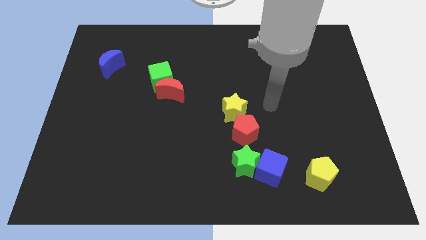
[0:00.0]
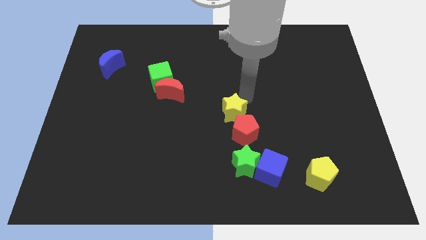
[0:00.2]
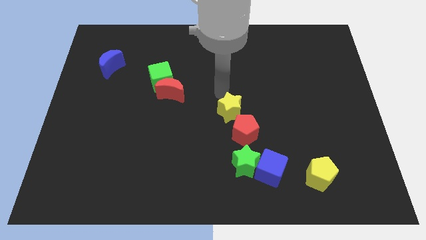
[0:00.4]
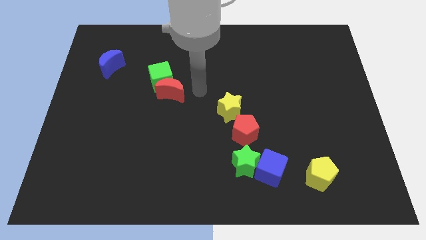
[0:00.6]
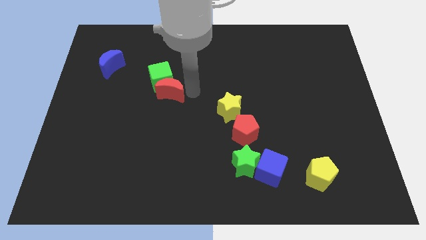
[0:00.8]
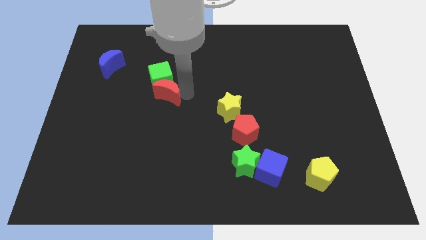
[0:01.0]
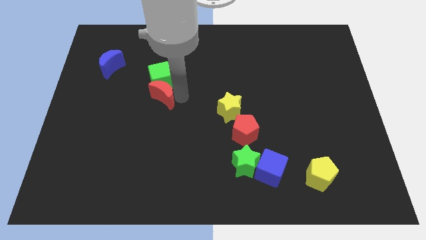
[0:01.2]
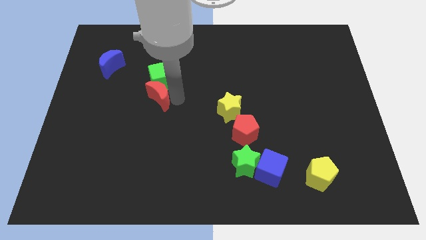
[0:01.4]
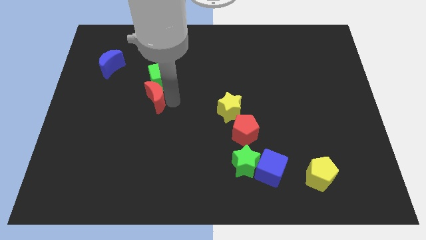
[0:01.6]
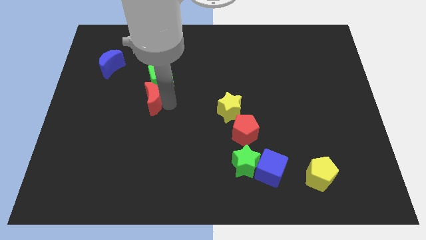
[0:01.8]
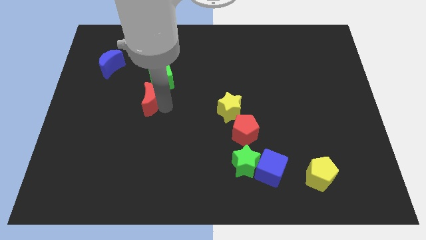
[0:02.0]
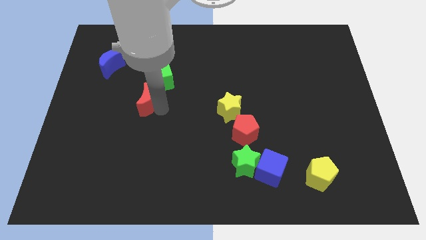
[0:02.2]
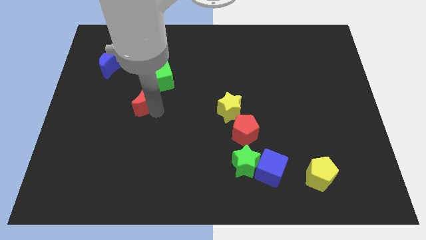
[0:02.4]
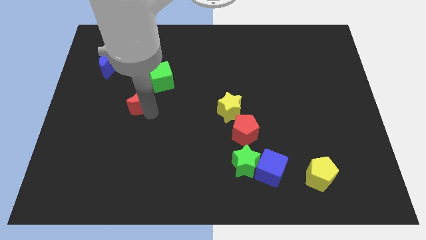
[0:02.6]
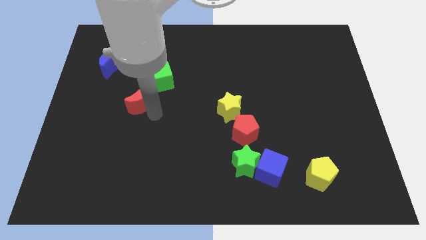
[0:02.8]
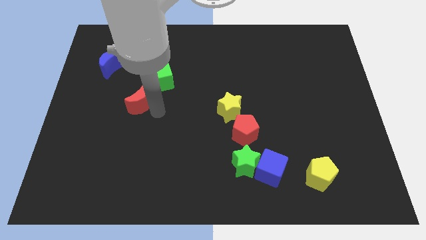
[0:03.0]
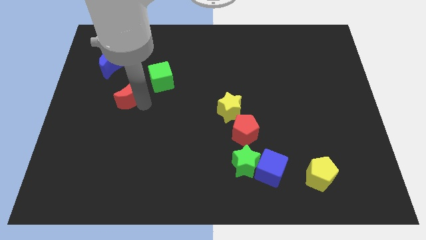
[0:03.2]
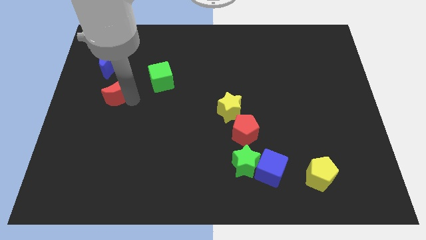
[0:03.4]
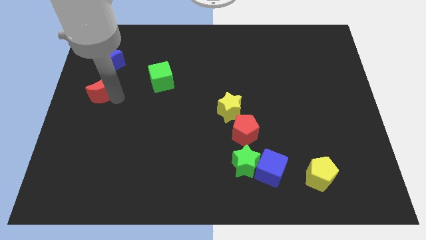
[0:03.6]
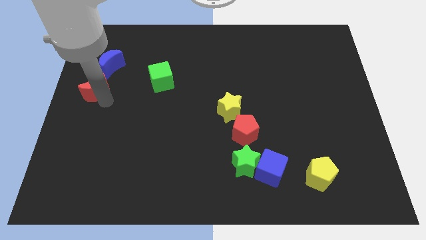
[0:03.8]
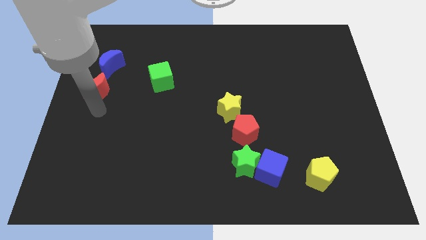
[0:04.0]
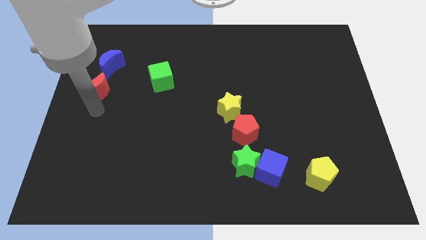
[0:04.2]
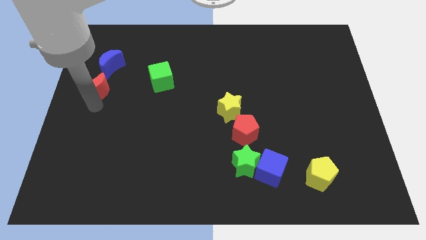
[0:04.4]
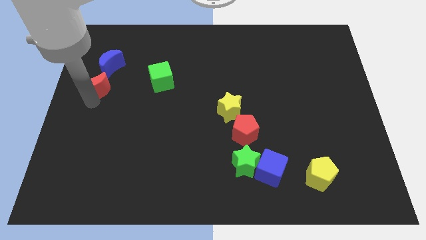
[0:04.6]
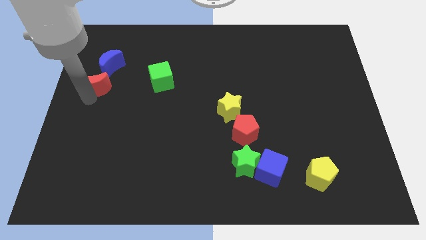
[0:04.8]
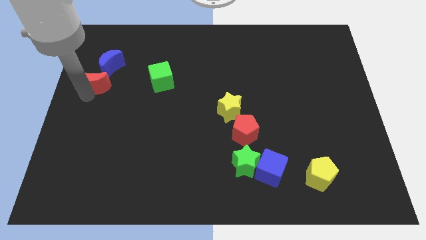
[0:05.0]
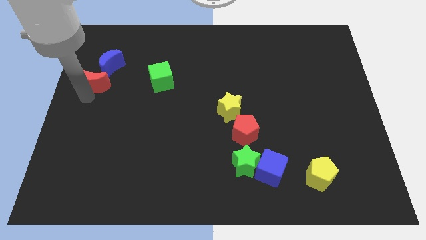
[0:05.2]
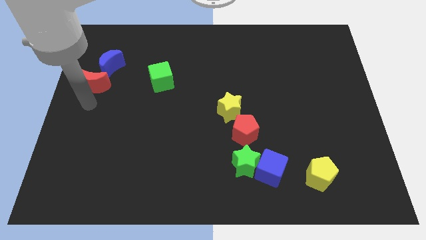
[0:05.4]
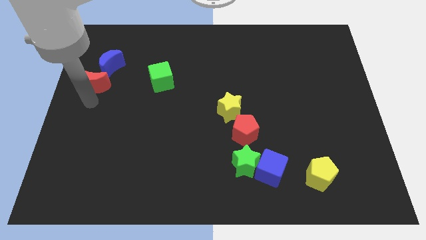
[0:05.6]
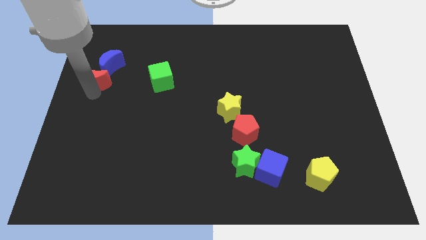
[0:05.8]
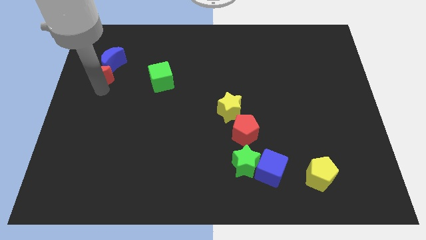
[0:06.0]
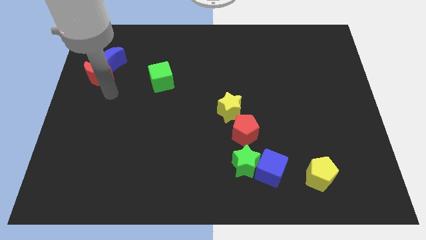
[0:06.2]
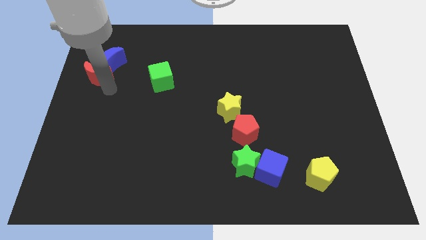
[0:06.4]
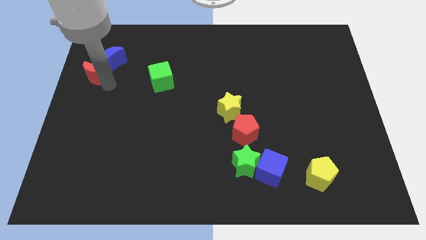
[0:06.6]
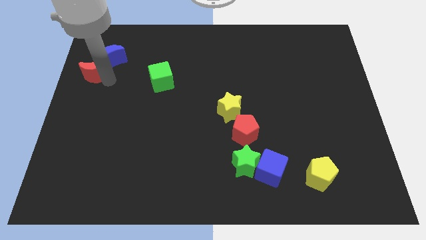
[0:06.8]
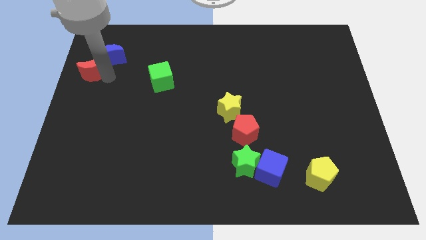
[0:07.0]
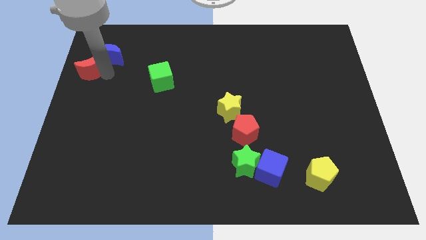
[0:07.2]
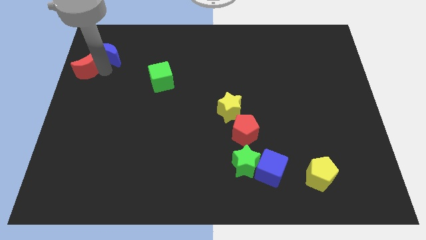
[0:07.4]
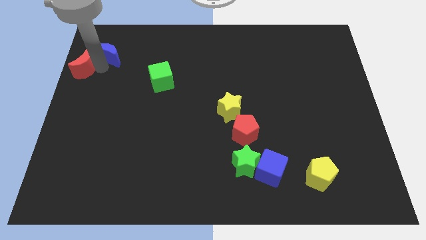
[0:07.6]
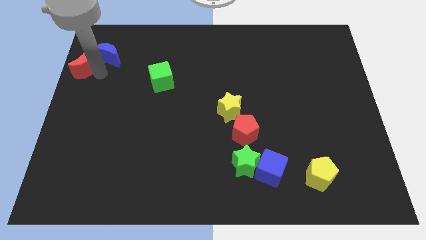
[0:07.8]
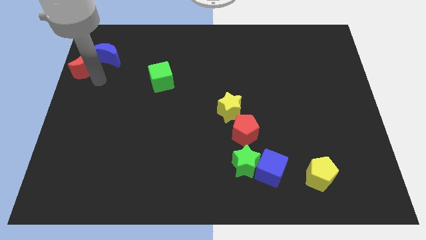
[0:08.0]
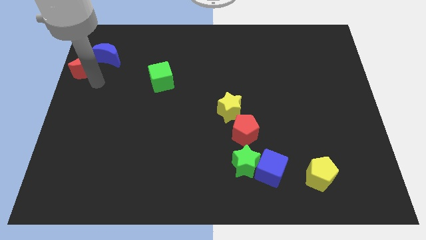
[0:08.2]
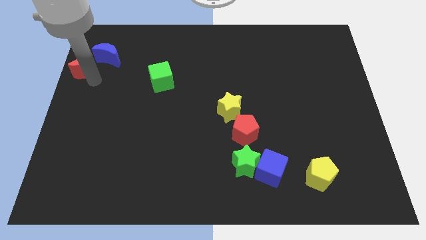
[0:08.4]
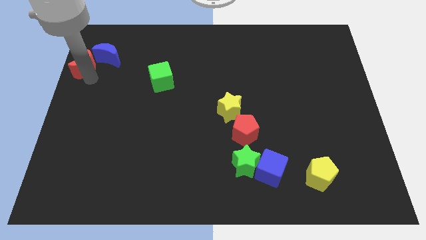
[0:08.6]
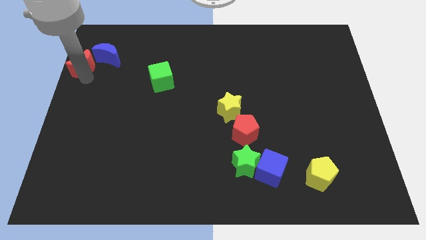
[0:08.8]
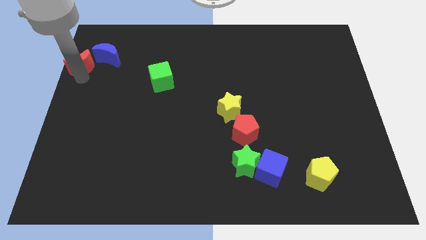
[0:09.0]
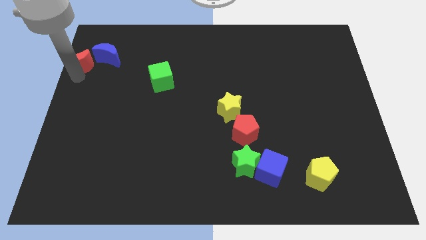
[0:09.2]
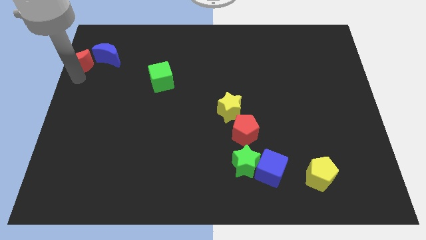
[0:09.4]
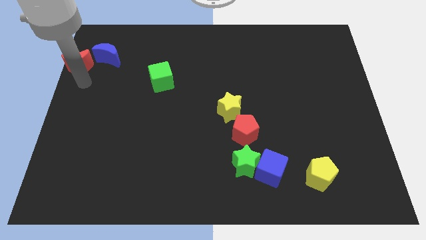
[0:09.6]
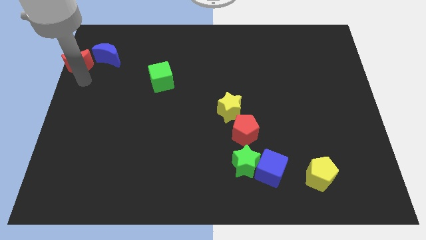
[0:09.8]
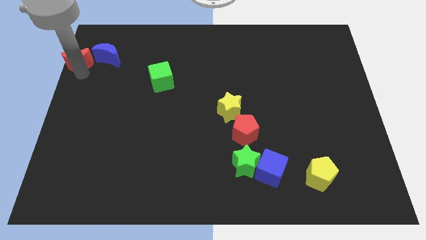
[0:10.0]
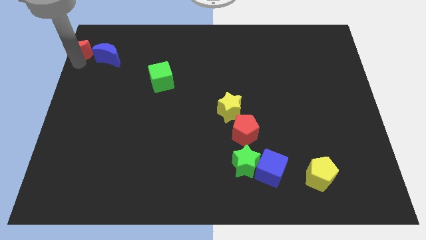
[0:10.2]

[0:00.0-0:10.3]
move the red moon to the top left of the board

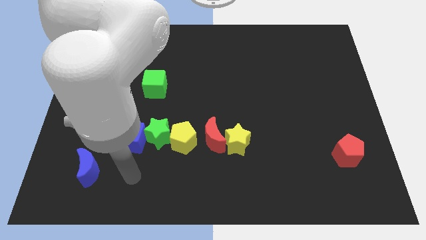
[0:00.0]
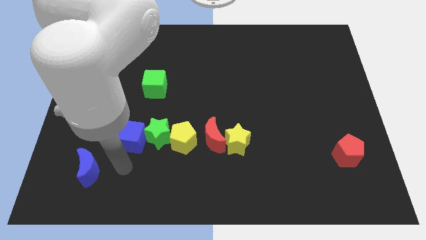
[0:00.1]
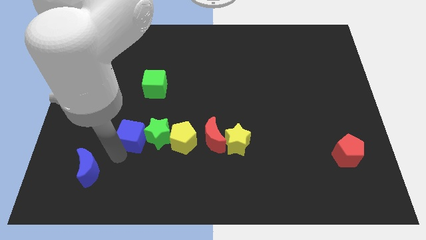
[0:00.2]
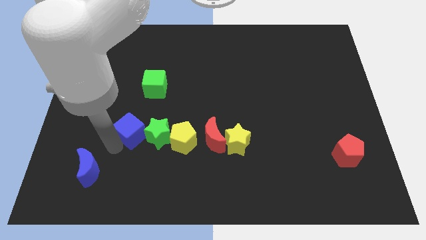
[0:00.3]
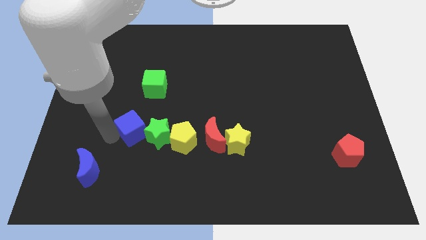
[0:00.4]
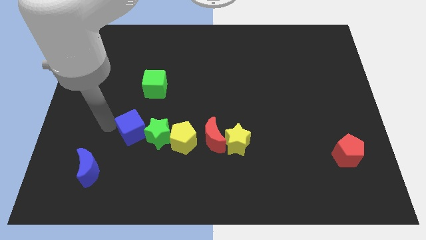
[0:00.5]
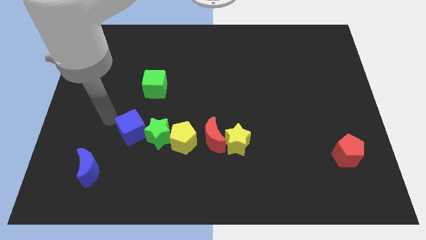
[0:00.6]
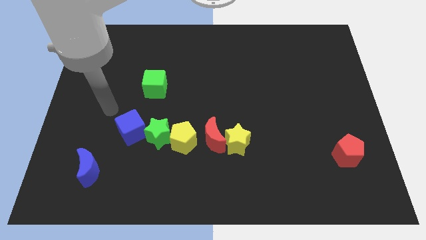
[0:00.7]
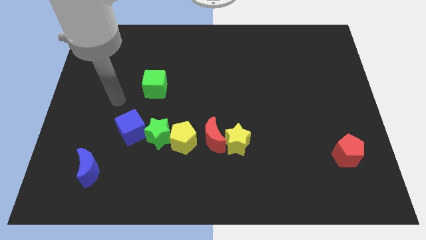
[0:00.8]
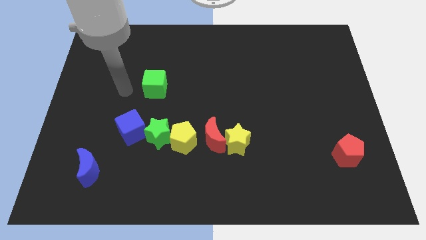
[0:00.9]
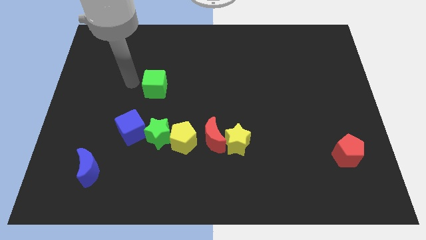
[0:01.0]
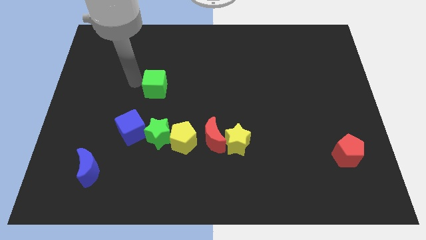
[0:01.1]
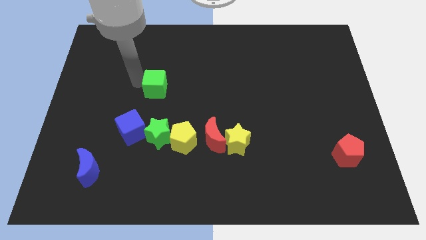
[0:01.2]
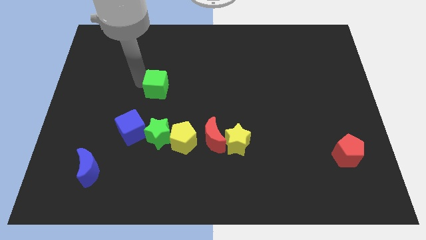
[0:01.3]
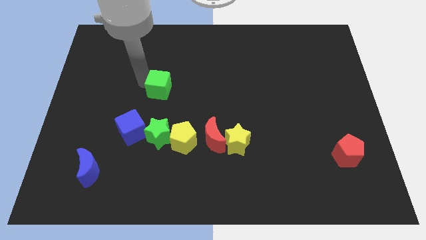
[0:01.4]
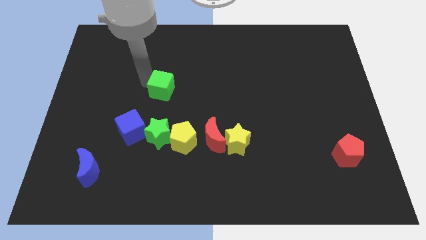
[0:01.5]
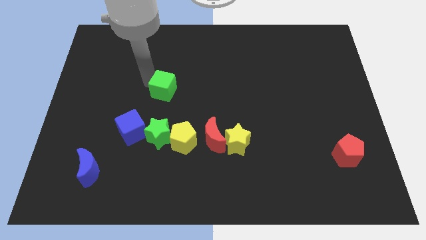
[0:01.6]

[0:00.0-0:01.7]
slide the green cube to the middle
